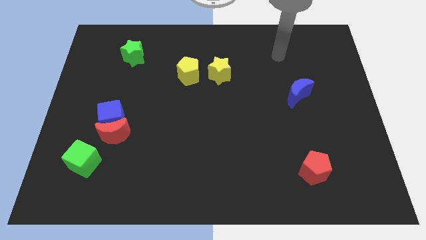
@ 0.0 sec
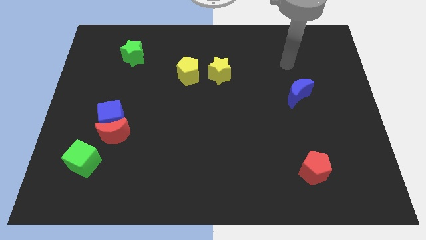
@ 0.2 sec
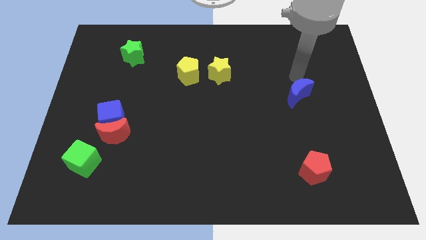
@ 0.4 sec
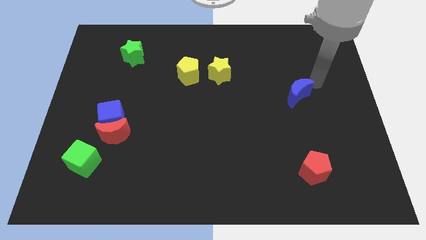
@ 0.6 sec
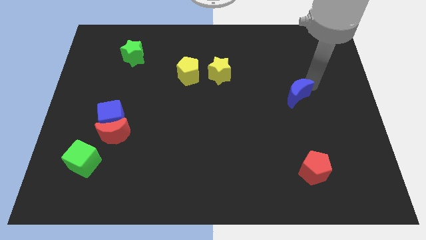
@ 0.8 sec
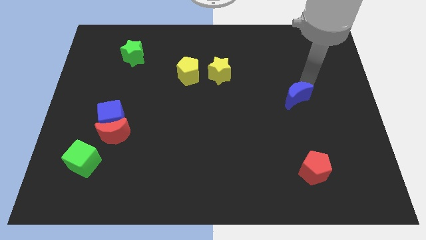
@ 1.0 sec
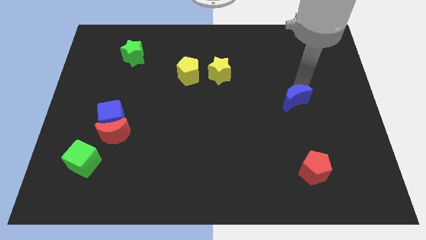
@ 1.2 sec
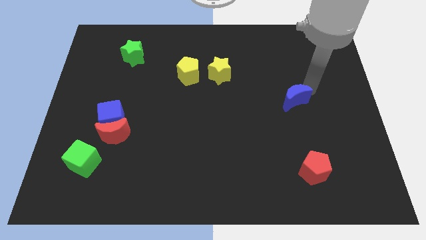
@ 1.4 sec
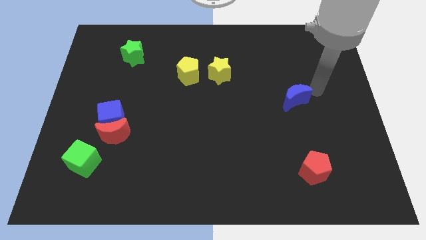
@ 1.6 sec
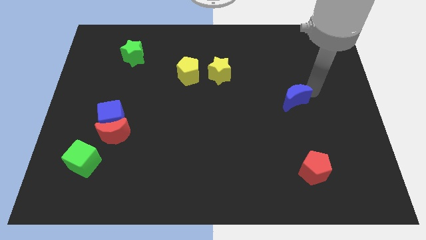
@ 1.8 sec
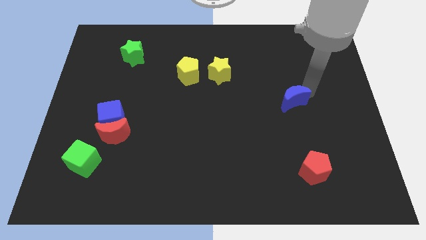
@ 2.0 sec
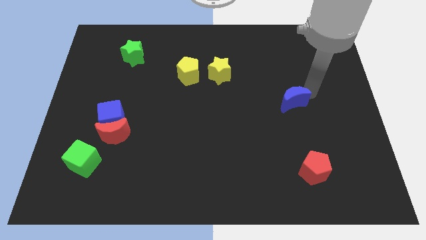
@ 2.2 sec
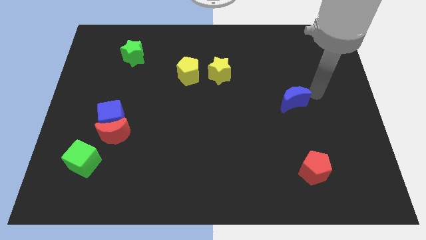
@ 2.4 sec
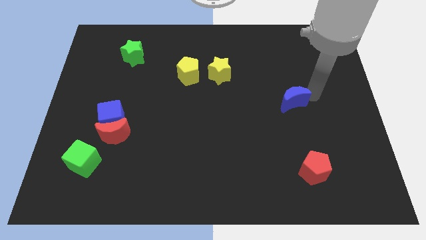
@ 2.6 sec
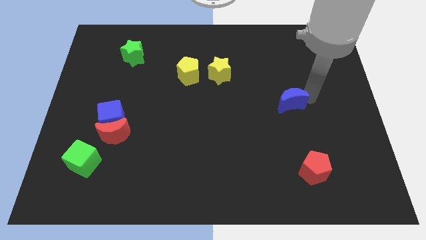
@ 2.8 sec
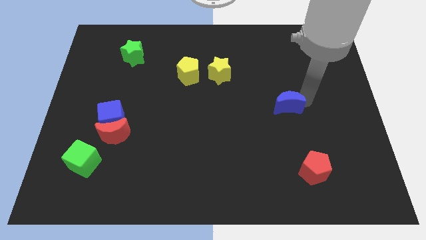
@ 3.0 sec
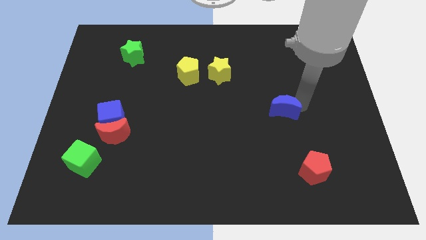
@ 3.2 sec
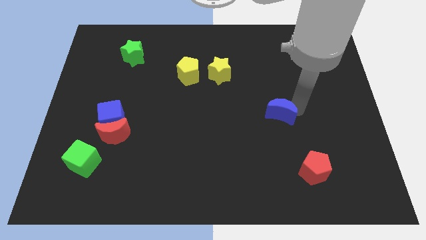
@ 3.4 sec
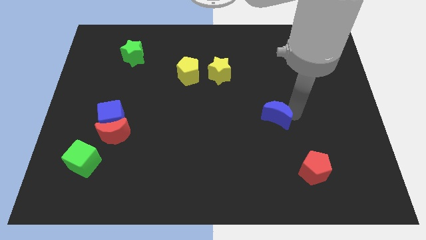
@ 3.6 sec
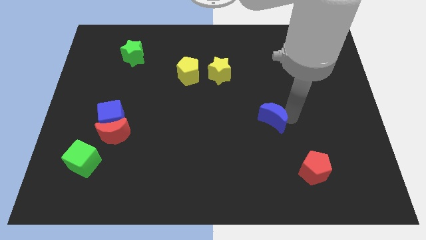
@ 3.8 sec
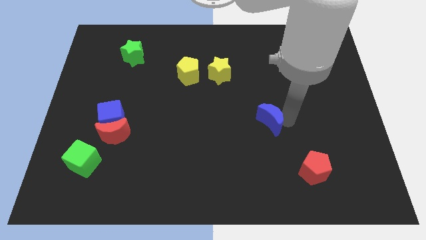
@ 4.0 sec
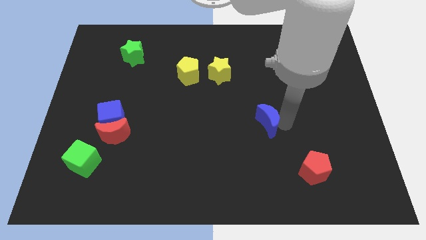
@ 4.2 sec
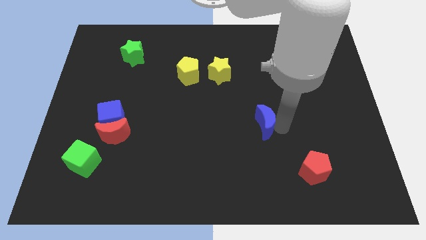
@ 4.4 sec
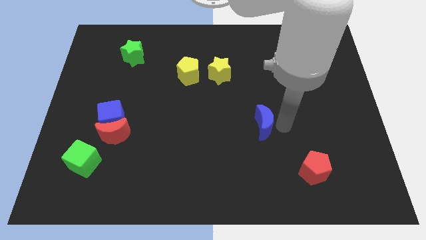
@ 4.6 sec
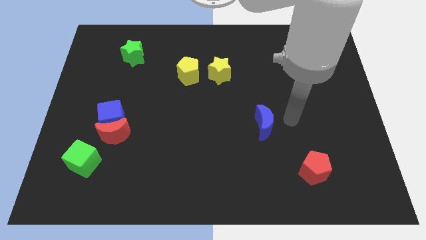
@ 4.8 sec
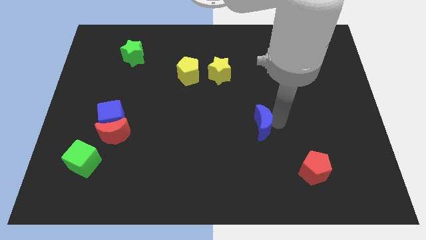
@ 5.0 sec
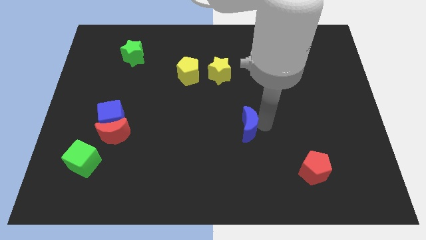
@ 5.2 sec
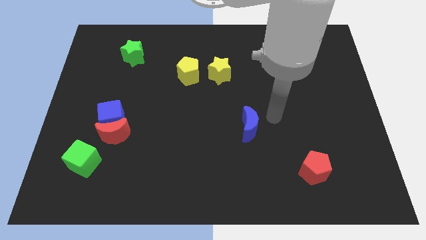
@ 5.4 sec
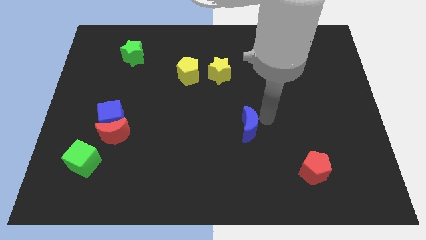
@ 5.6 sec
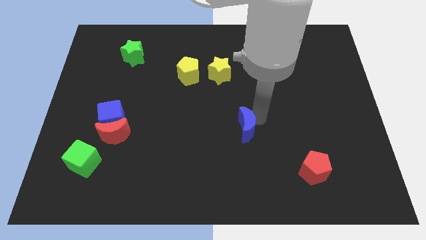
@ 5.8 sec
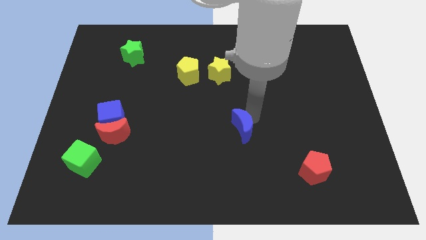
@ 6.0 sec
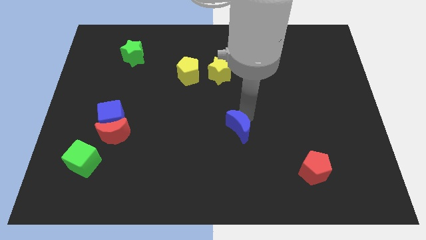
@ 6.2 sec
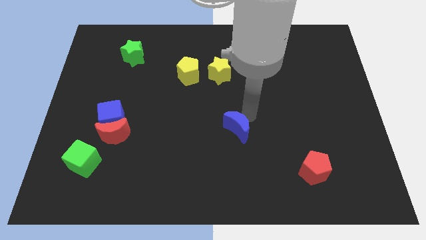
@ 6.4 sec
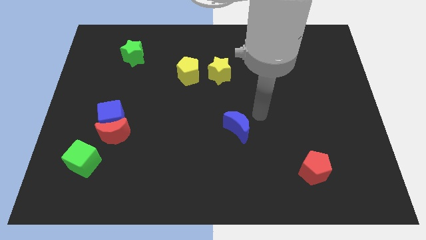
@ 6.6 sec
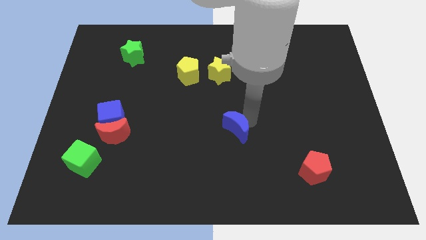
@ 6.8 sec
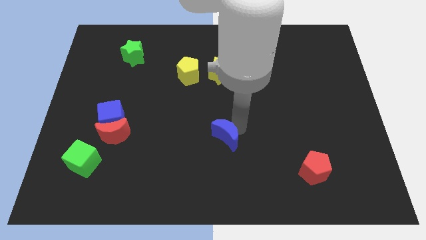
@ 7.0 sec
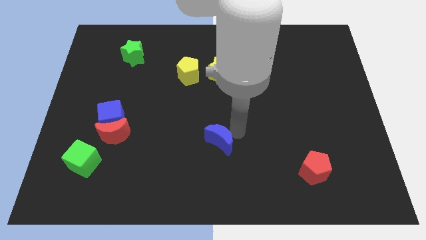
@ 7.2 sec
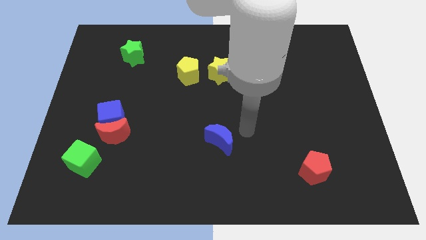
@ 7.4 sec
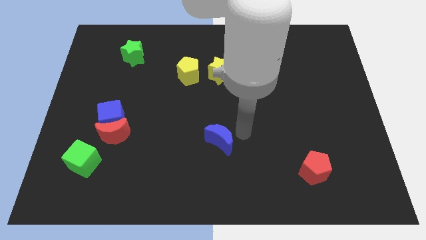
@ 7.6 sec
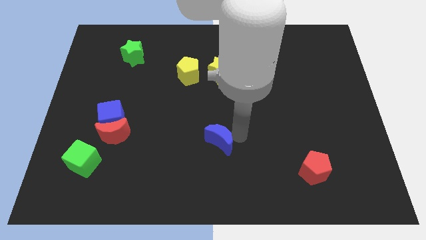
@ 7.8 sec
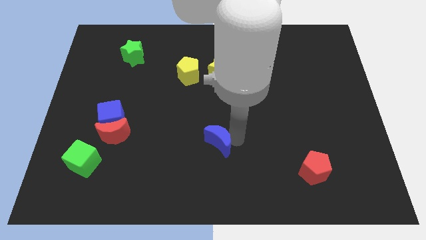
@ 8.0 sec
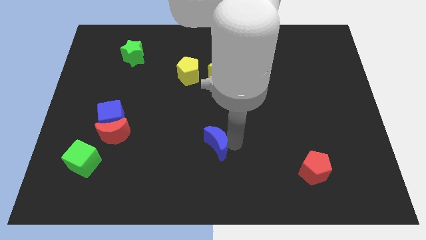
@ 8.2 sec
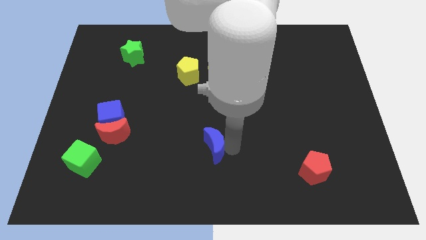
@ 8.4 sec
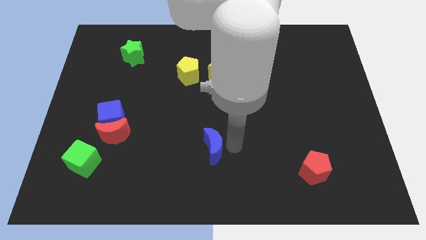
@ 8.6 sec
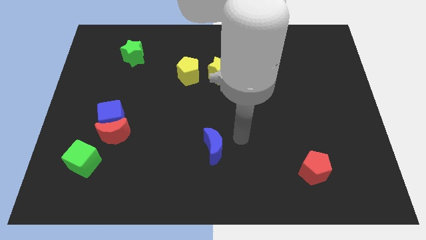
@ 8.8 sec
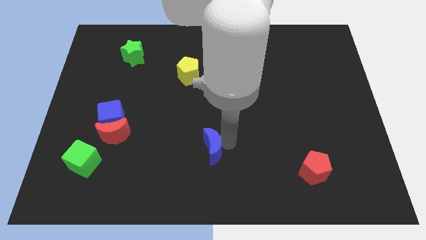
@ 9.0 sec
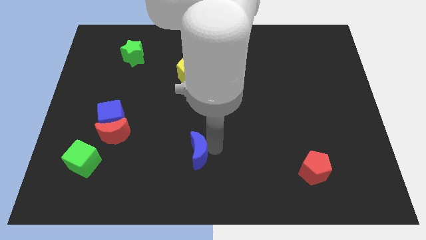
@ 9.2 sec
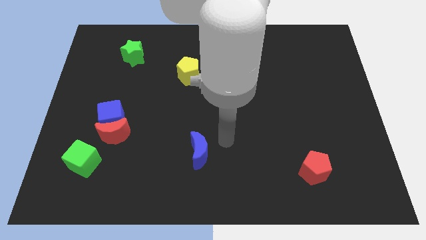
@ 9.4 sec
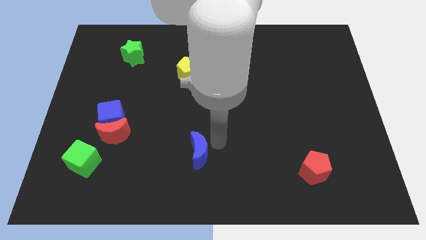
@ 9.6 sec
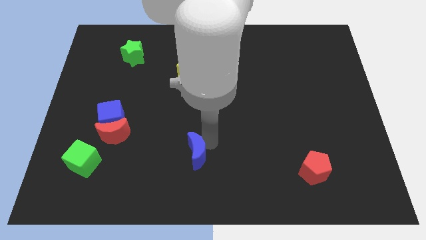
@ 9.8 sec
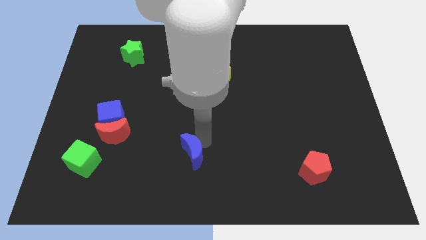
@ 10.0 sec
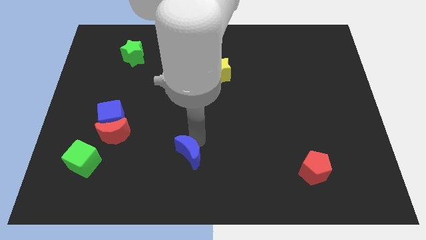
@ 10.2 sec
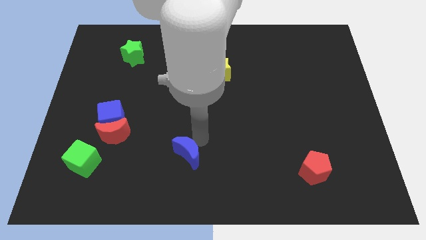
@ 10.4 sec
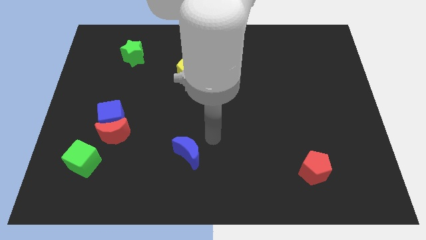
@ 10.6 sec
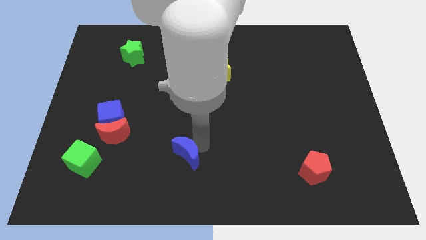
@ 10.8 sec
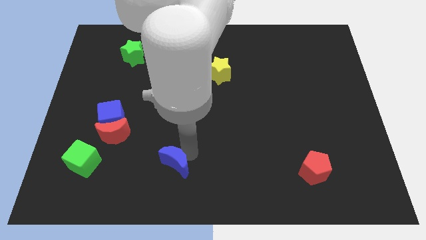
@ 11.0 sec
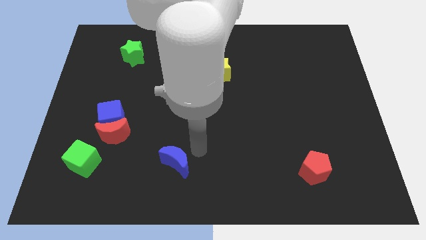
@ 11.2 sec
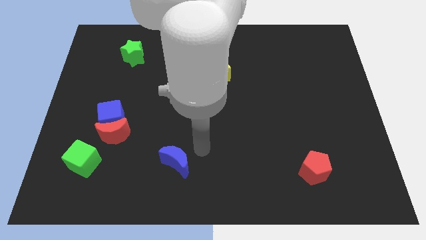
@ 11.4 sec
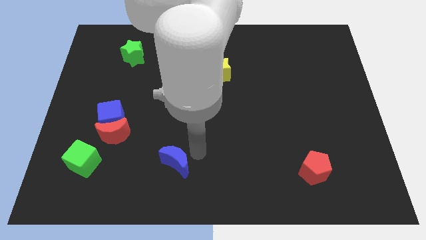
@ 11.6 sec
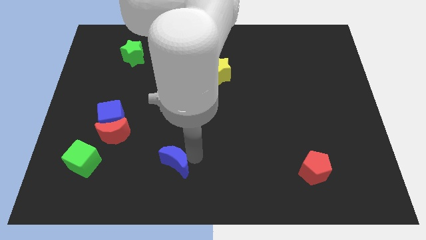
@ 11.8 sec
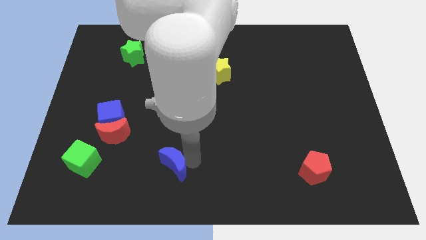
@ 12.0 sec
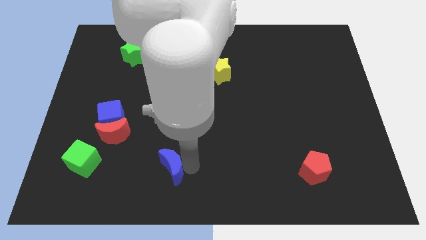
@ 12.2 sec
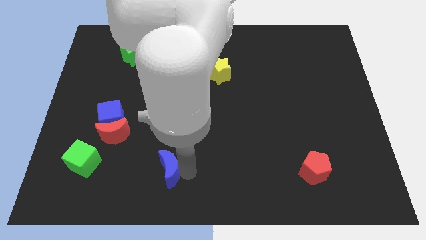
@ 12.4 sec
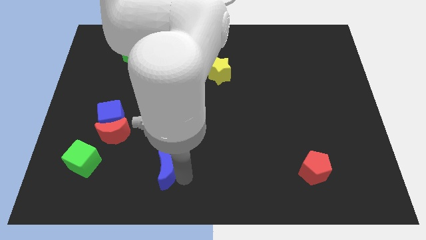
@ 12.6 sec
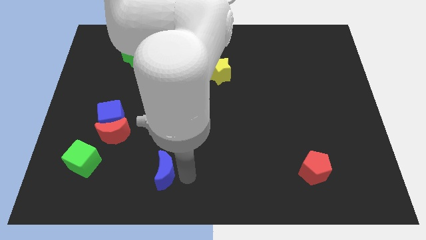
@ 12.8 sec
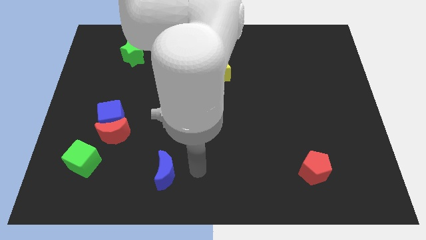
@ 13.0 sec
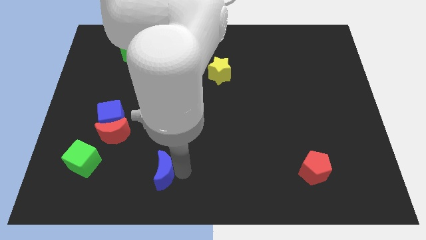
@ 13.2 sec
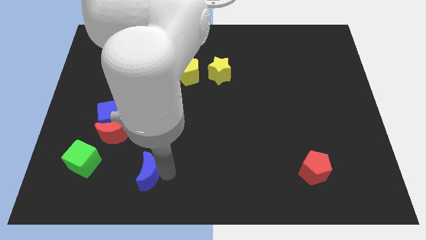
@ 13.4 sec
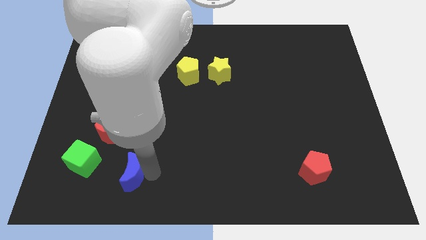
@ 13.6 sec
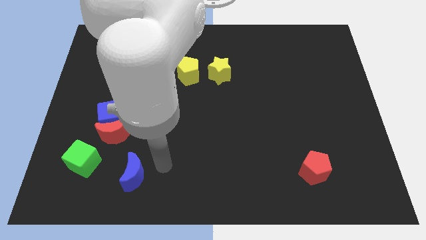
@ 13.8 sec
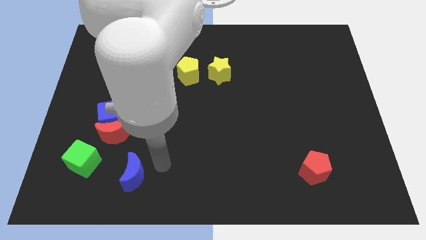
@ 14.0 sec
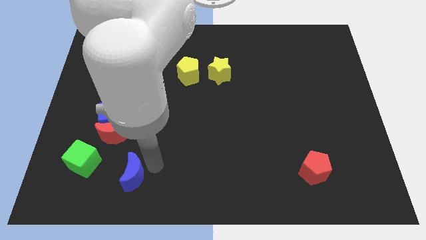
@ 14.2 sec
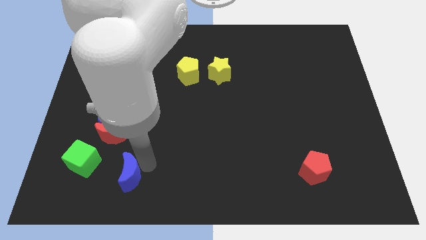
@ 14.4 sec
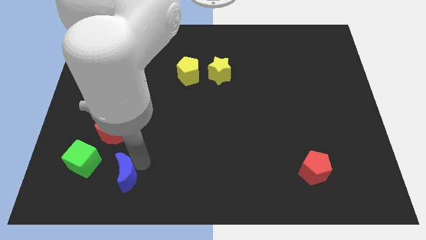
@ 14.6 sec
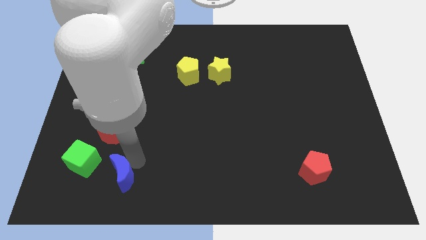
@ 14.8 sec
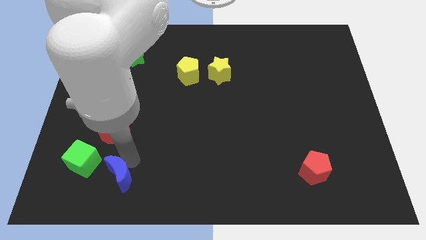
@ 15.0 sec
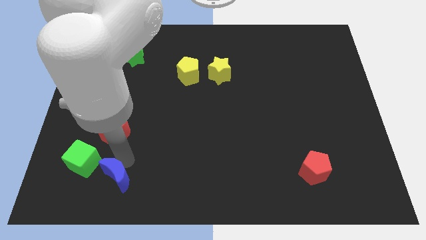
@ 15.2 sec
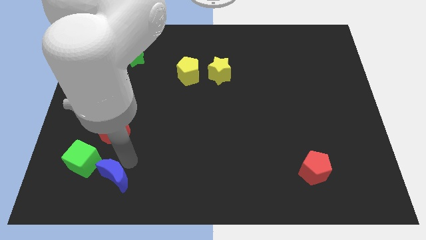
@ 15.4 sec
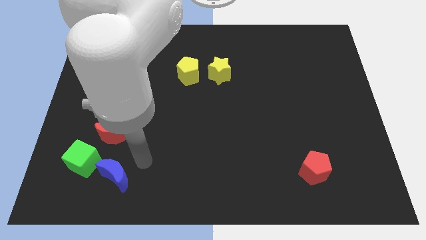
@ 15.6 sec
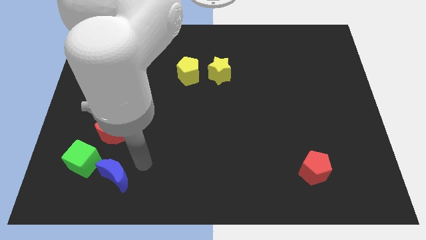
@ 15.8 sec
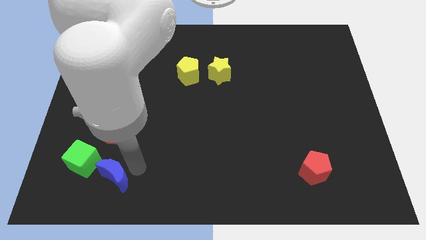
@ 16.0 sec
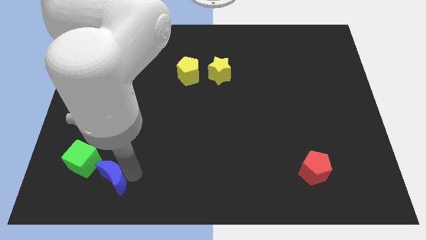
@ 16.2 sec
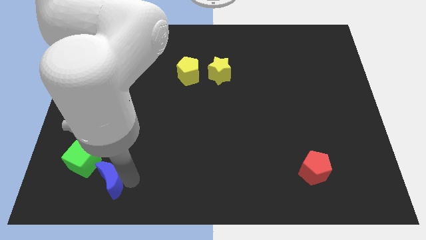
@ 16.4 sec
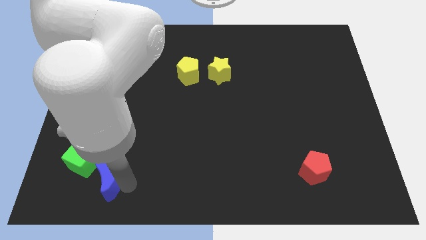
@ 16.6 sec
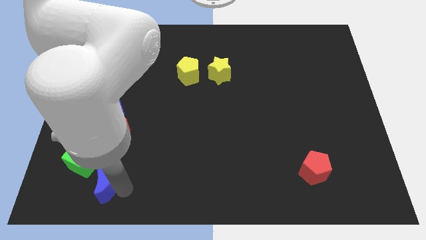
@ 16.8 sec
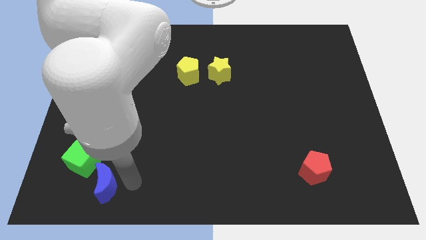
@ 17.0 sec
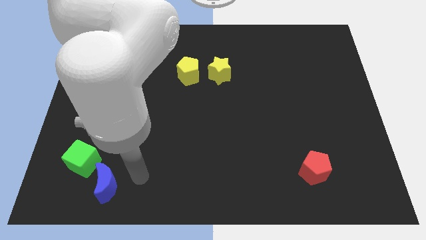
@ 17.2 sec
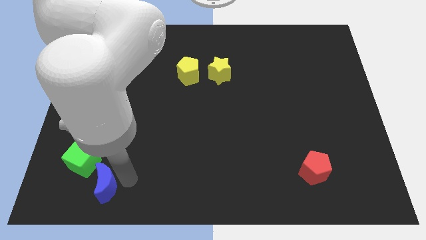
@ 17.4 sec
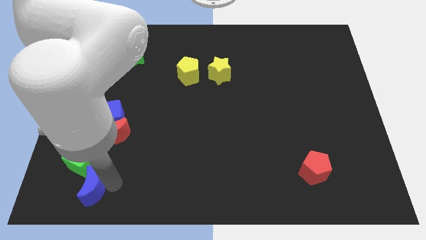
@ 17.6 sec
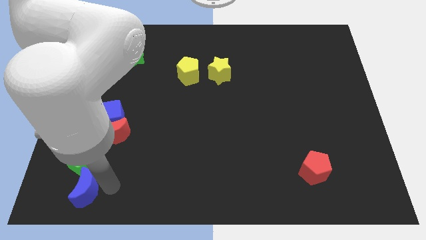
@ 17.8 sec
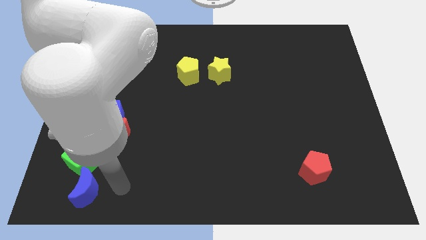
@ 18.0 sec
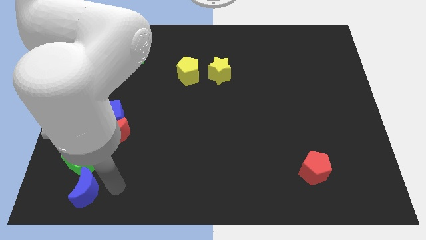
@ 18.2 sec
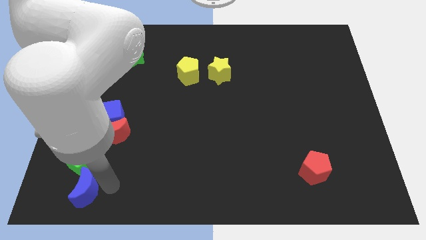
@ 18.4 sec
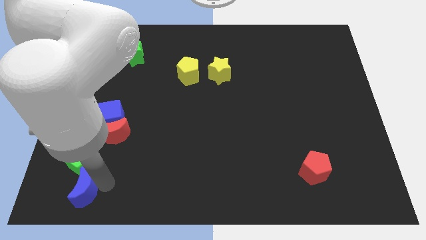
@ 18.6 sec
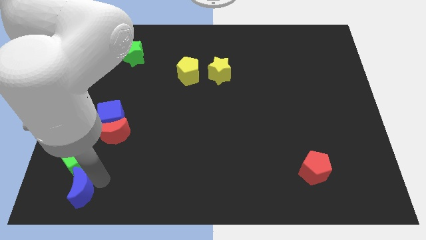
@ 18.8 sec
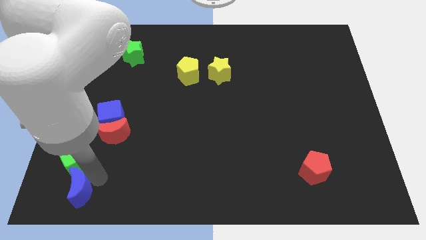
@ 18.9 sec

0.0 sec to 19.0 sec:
slide the blue moon to the bottom left
